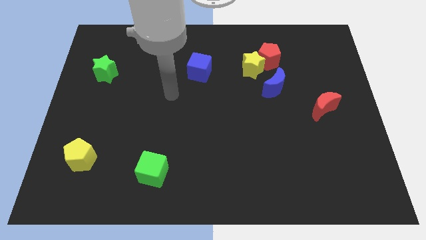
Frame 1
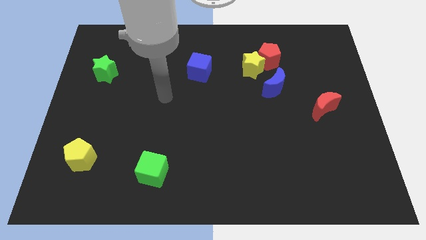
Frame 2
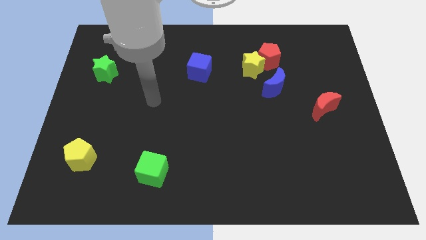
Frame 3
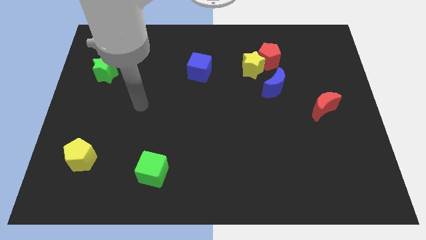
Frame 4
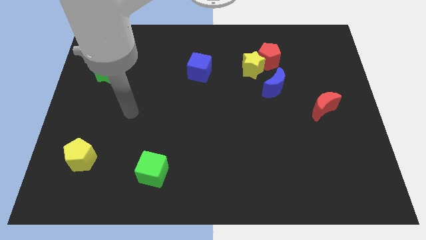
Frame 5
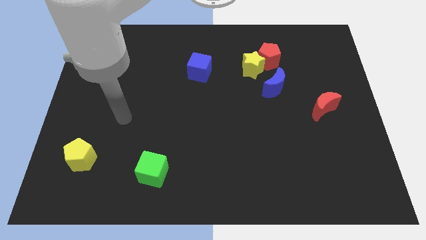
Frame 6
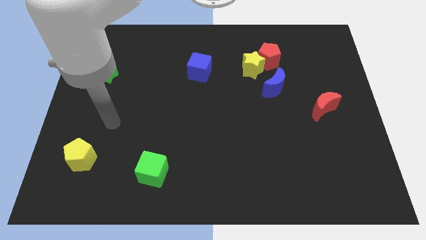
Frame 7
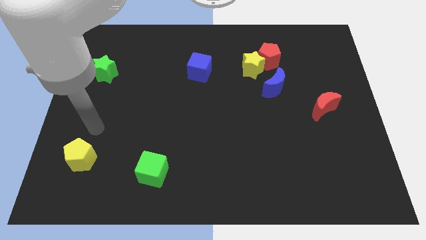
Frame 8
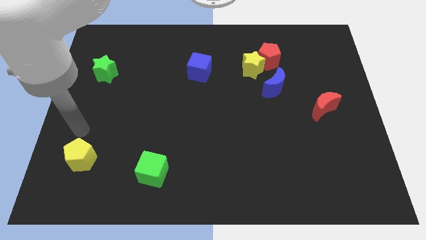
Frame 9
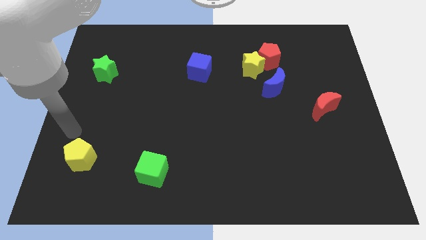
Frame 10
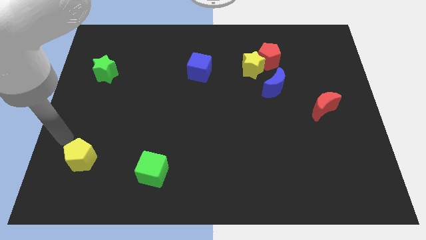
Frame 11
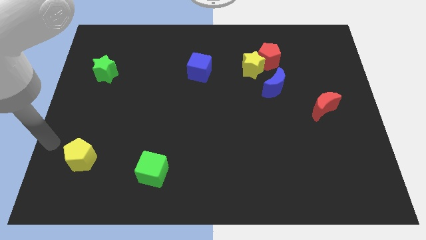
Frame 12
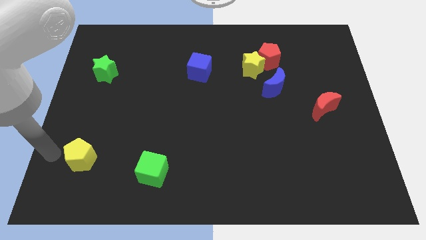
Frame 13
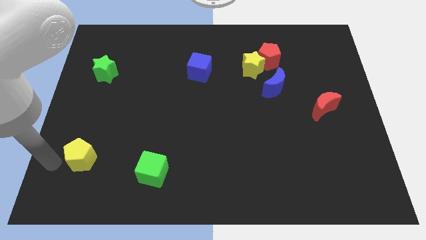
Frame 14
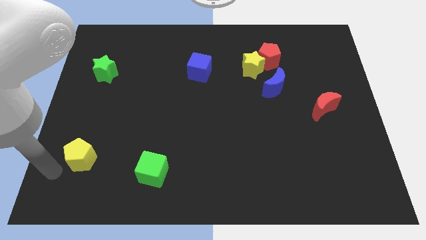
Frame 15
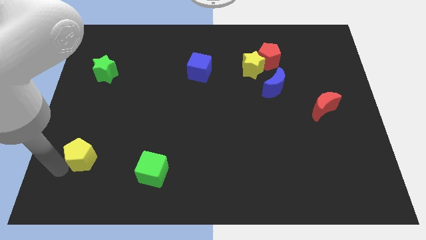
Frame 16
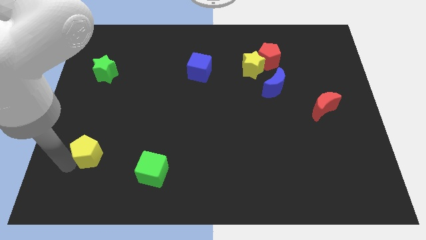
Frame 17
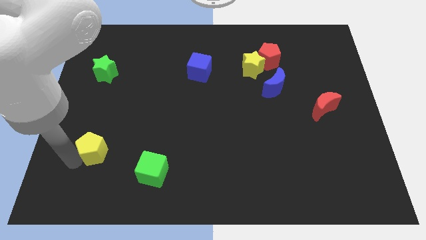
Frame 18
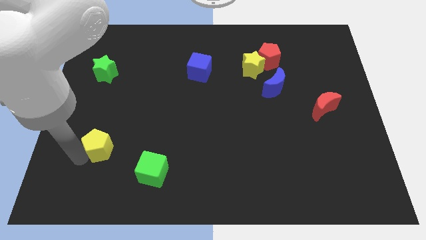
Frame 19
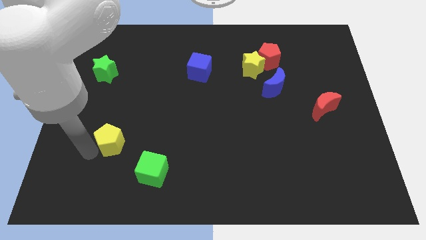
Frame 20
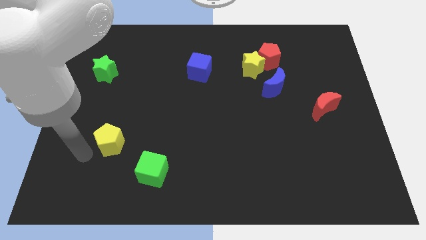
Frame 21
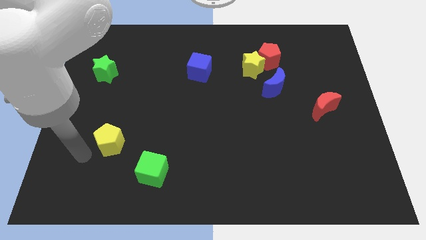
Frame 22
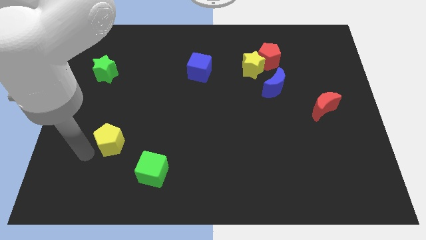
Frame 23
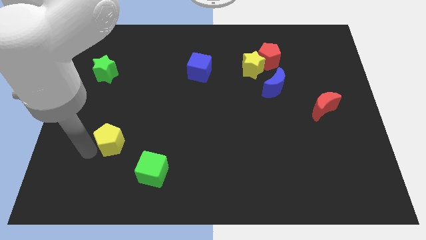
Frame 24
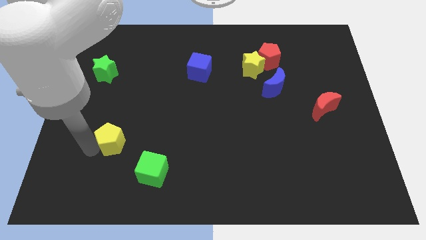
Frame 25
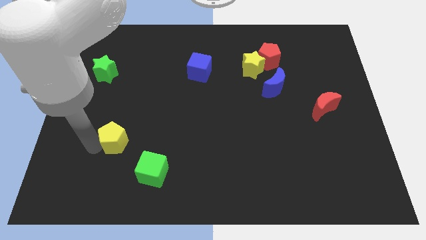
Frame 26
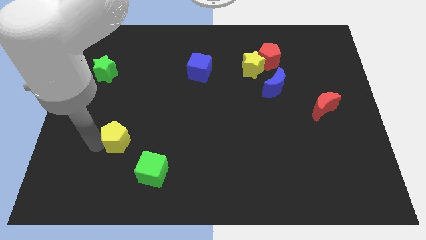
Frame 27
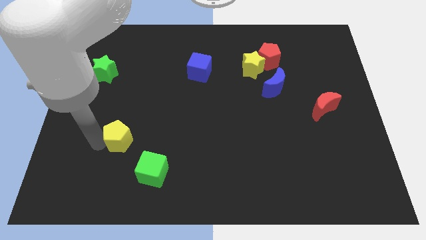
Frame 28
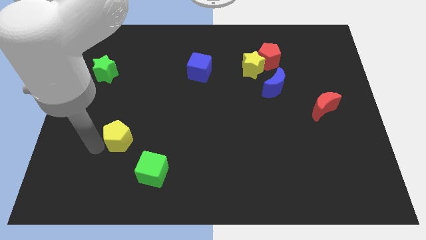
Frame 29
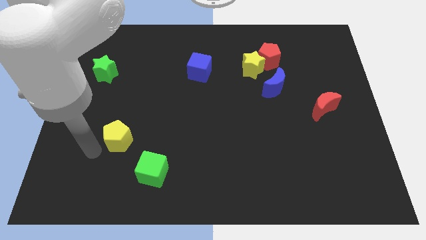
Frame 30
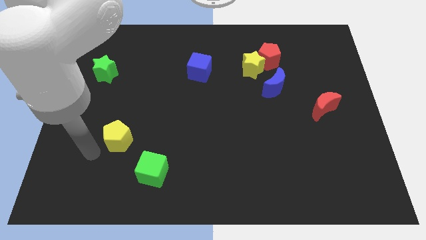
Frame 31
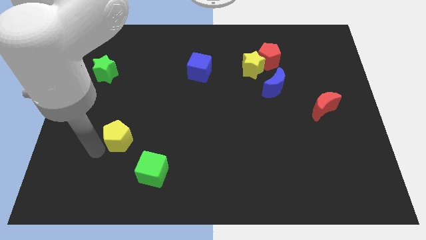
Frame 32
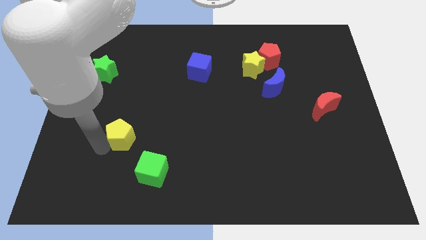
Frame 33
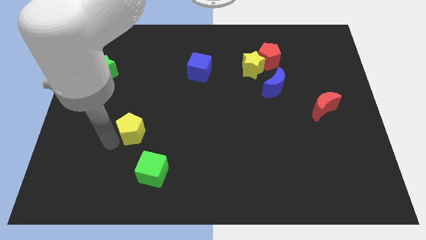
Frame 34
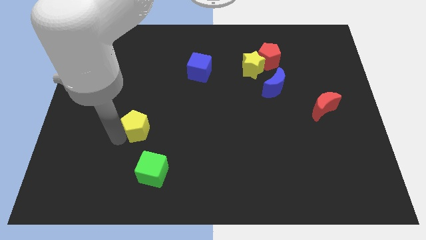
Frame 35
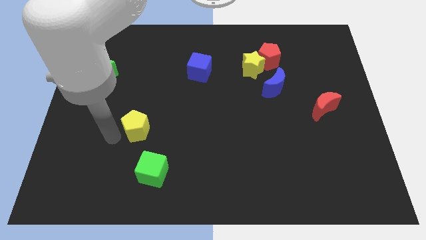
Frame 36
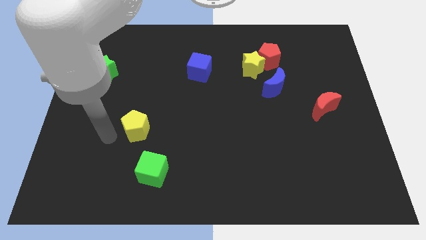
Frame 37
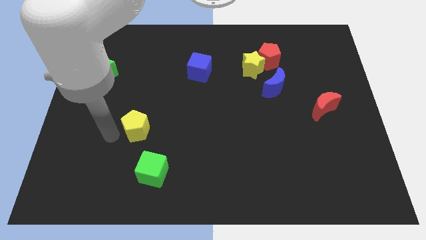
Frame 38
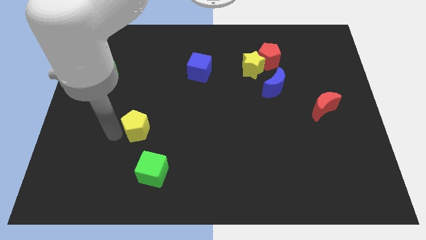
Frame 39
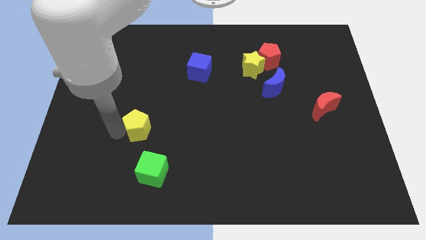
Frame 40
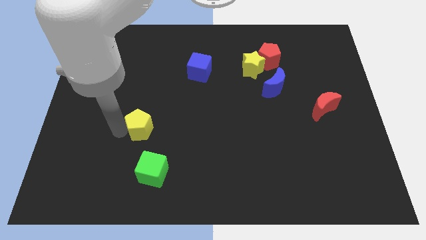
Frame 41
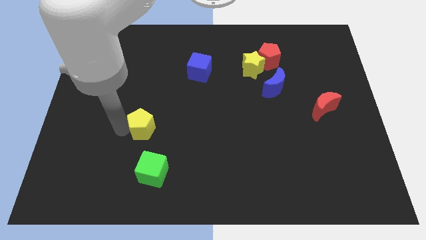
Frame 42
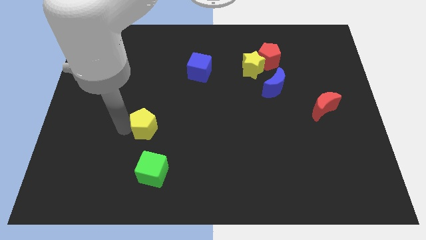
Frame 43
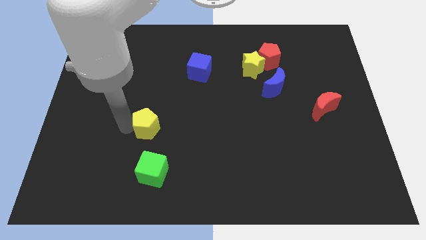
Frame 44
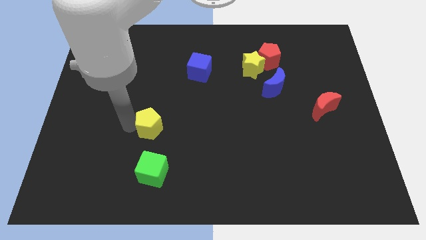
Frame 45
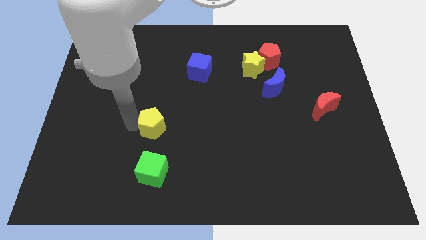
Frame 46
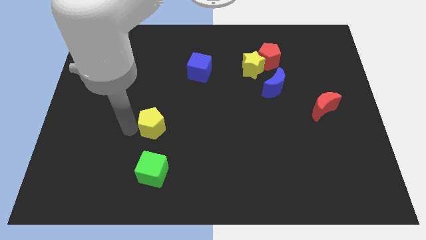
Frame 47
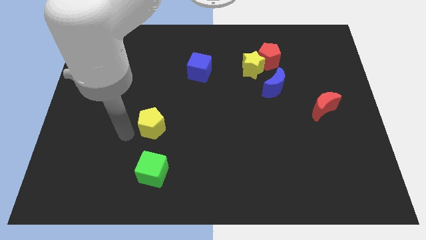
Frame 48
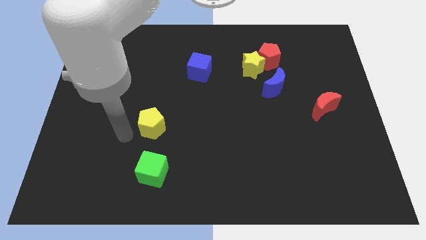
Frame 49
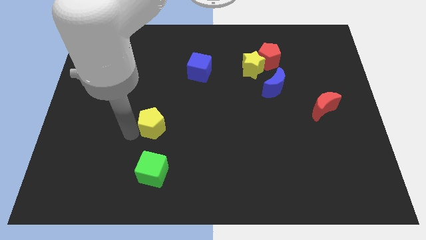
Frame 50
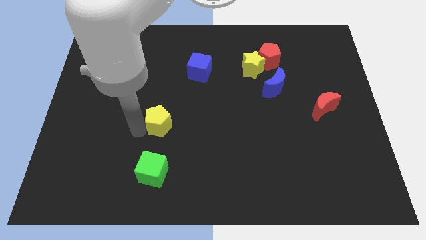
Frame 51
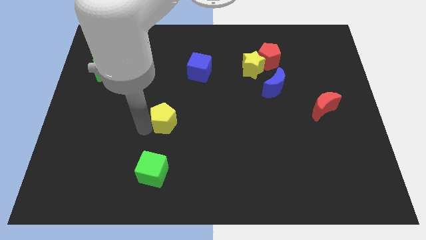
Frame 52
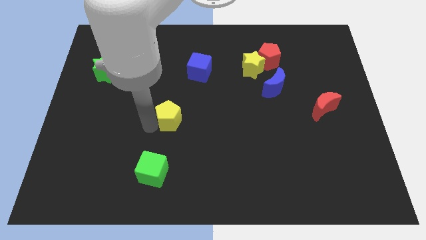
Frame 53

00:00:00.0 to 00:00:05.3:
move the yellow pentagon to the middle of the board

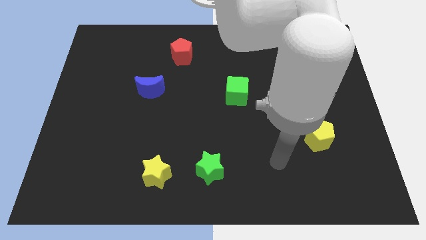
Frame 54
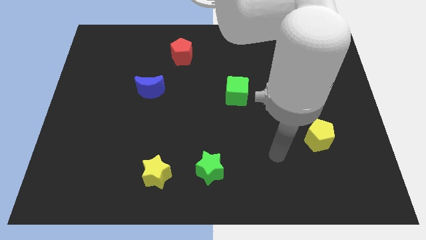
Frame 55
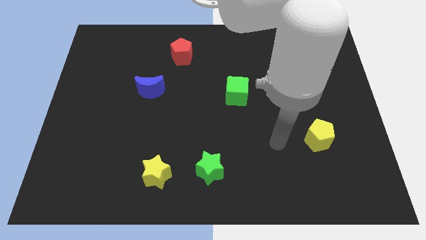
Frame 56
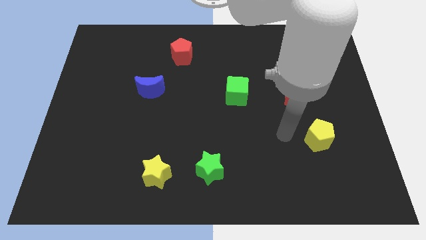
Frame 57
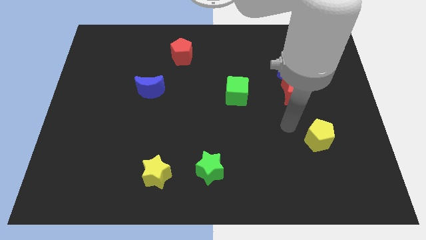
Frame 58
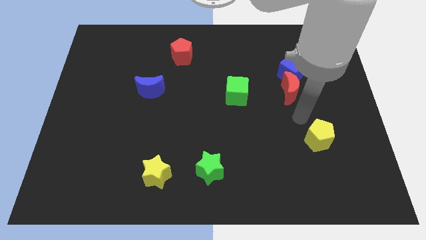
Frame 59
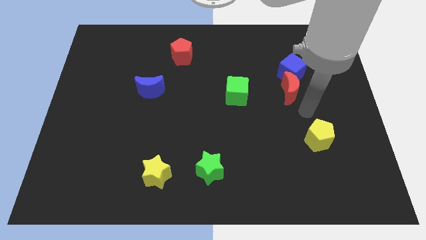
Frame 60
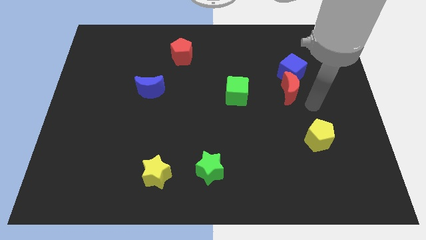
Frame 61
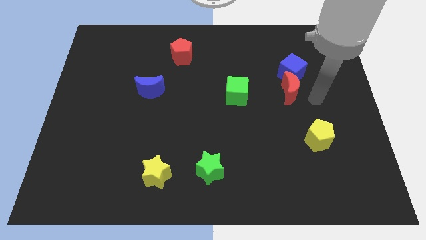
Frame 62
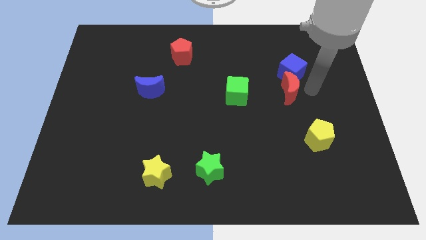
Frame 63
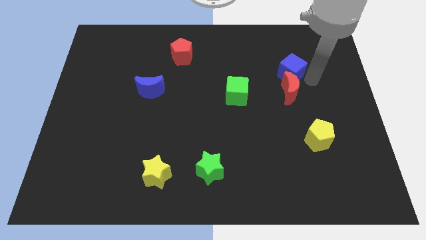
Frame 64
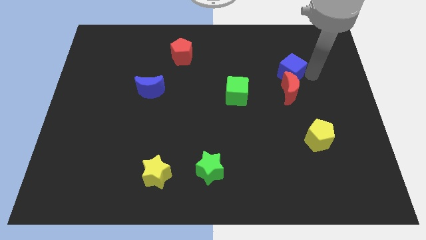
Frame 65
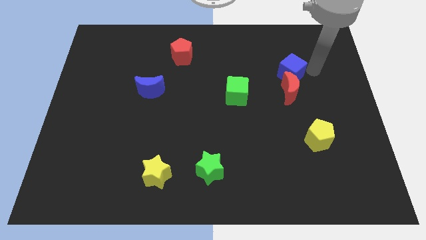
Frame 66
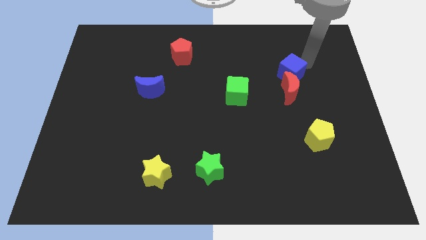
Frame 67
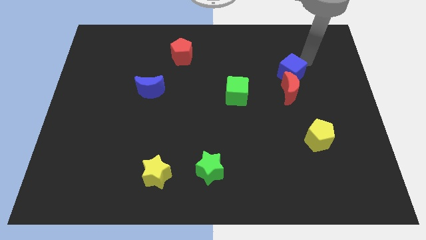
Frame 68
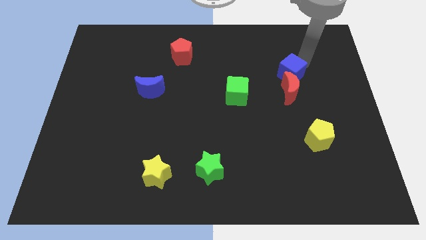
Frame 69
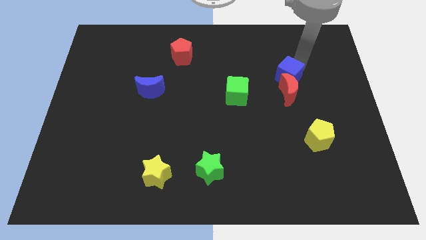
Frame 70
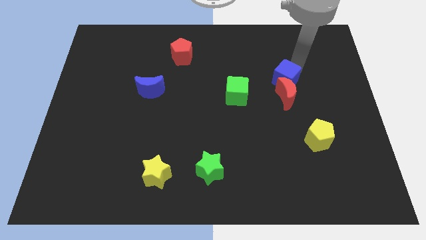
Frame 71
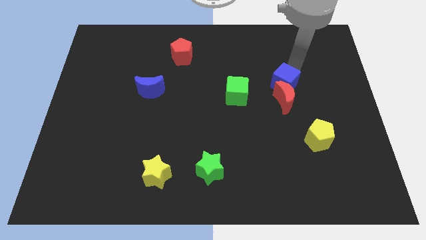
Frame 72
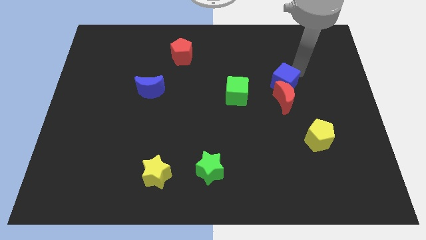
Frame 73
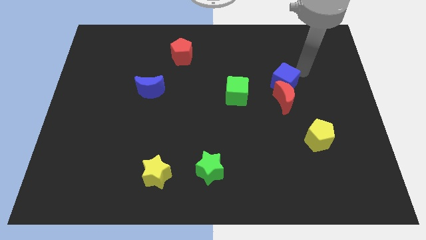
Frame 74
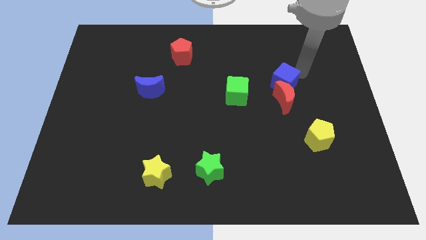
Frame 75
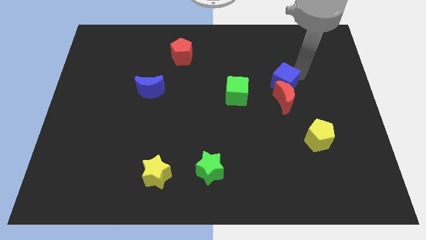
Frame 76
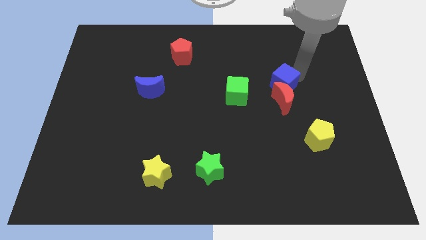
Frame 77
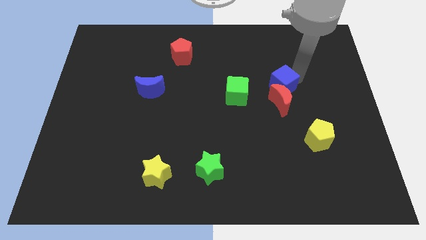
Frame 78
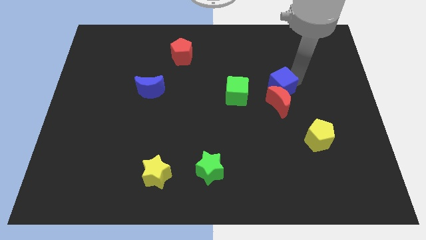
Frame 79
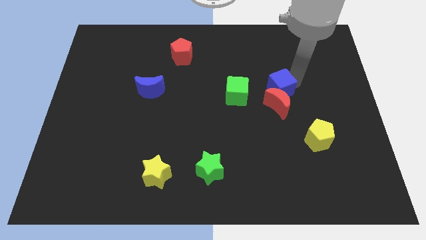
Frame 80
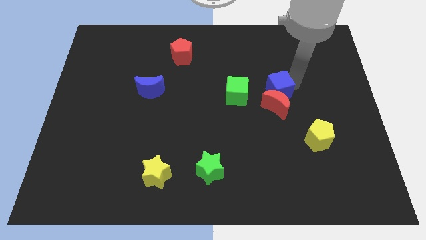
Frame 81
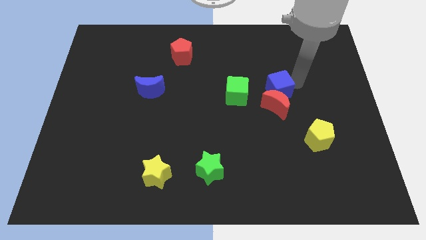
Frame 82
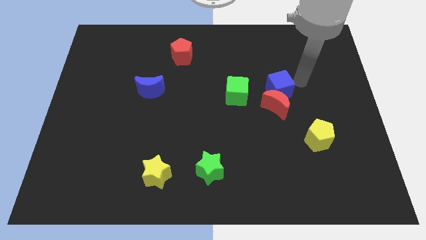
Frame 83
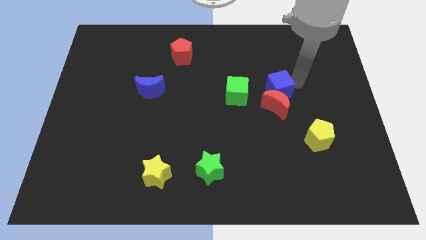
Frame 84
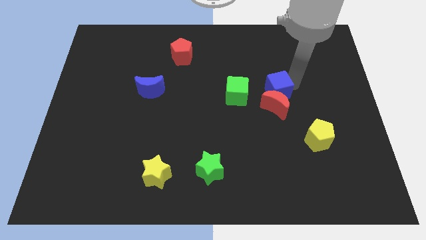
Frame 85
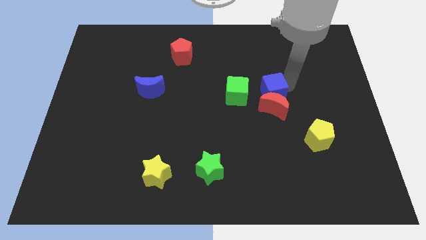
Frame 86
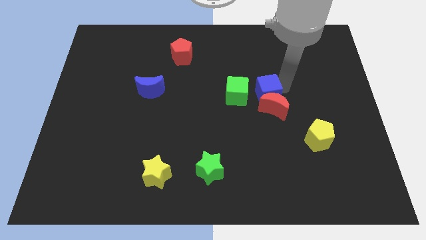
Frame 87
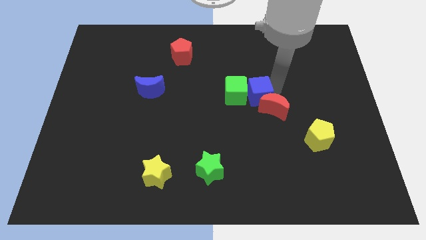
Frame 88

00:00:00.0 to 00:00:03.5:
push the blue cube to the center of the board
